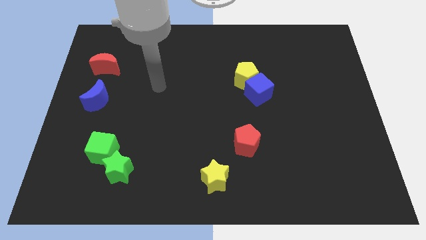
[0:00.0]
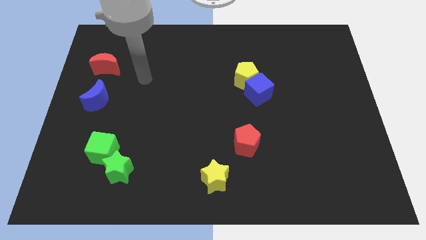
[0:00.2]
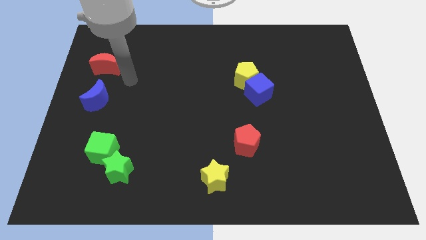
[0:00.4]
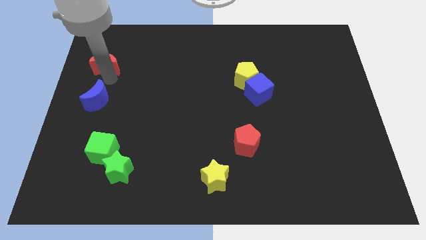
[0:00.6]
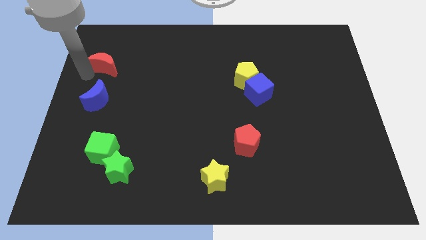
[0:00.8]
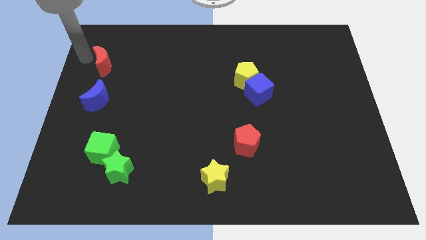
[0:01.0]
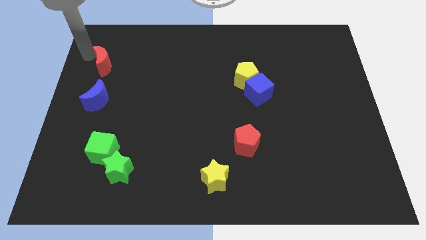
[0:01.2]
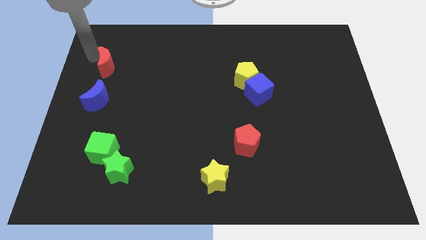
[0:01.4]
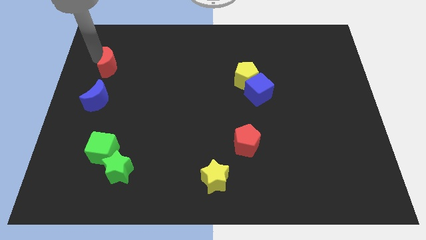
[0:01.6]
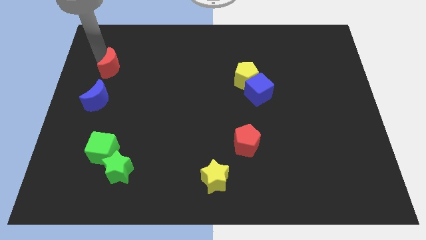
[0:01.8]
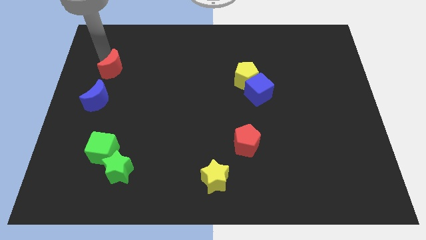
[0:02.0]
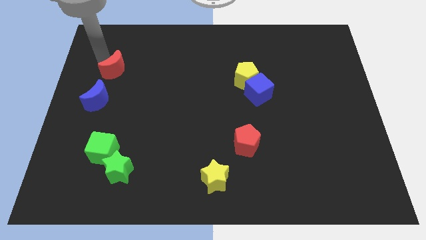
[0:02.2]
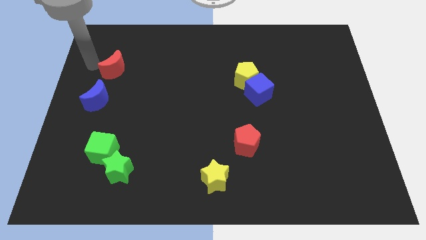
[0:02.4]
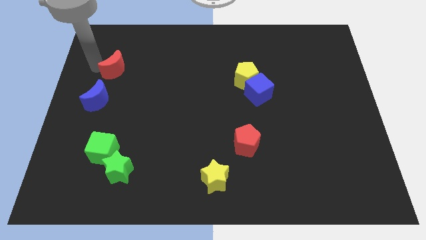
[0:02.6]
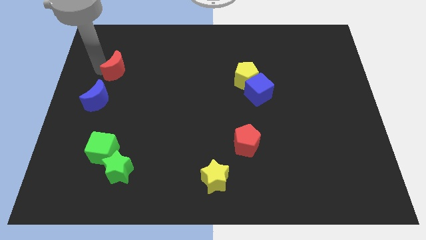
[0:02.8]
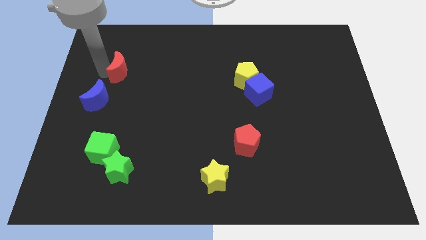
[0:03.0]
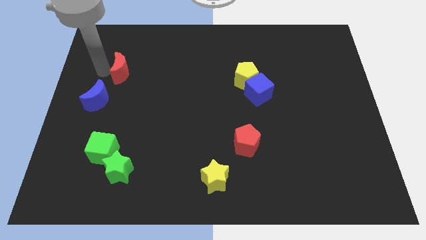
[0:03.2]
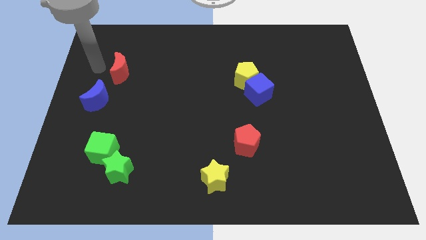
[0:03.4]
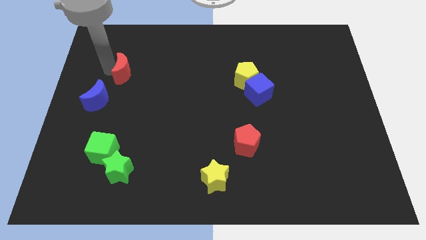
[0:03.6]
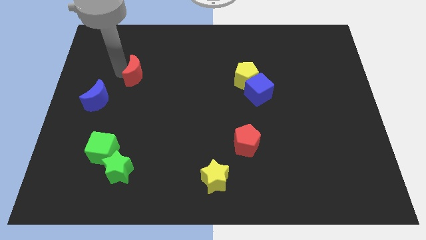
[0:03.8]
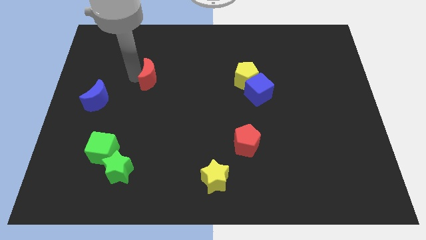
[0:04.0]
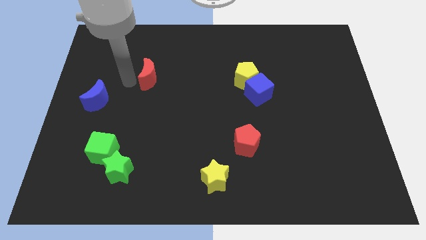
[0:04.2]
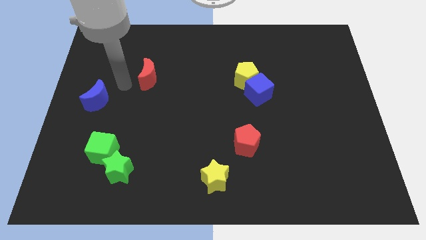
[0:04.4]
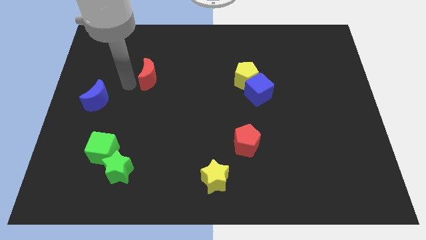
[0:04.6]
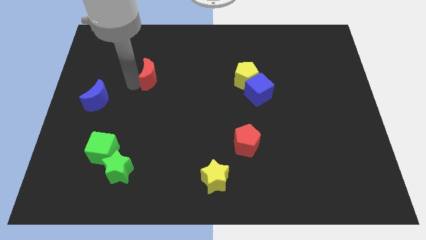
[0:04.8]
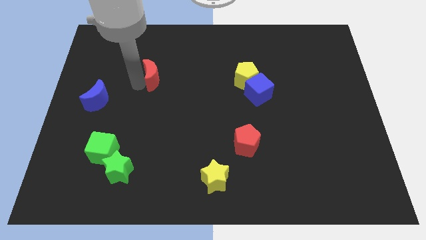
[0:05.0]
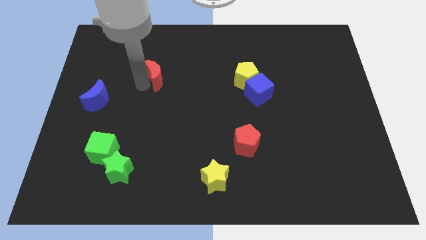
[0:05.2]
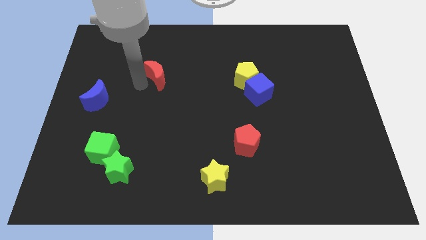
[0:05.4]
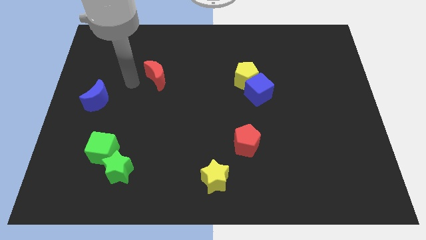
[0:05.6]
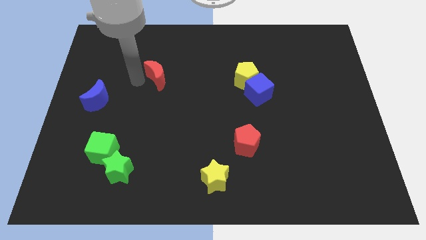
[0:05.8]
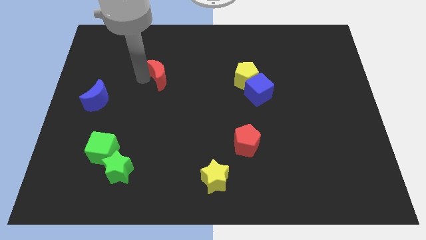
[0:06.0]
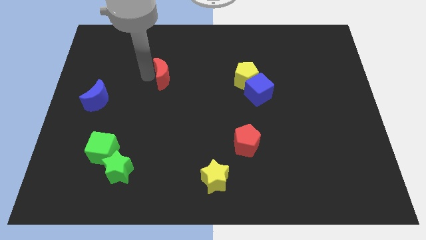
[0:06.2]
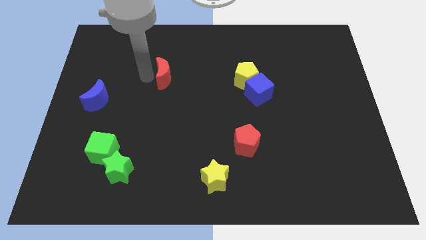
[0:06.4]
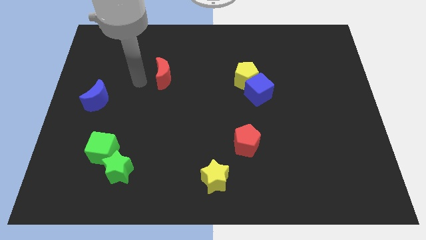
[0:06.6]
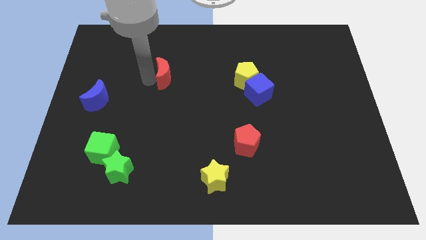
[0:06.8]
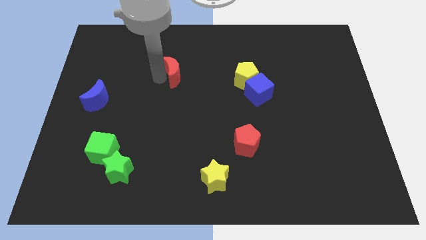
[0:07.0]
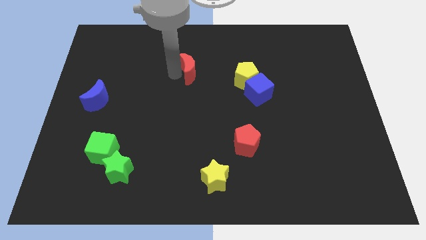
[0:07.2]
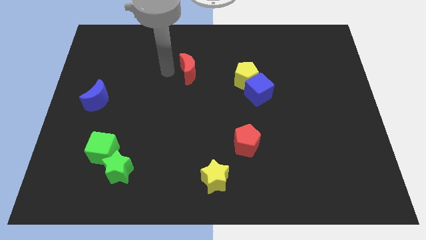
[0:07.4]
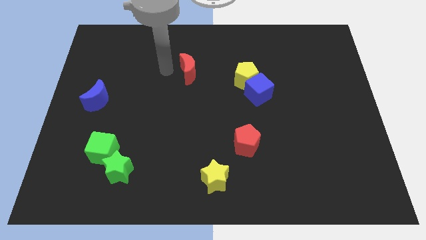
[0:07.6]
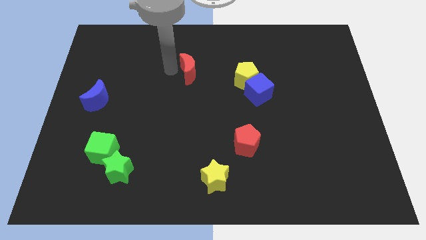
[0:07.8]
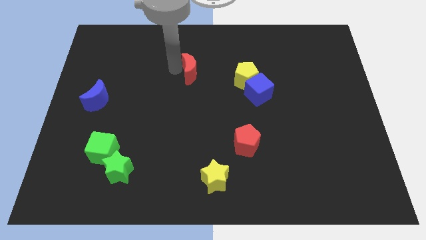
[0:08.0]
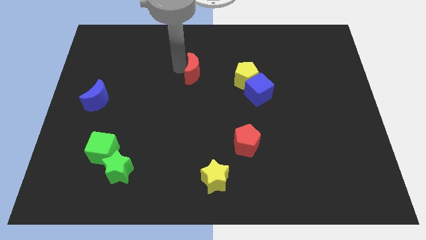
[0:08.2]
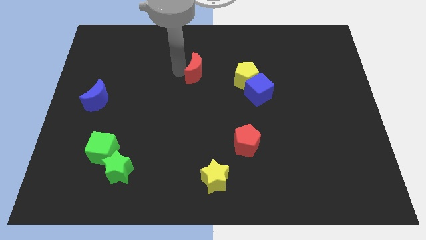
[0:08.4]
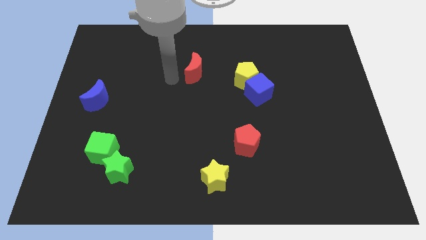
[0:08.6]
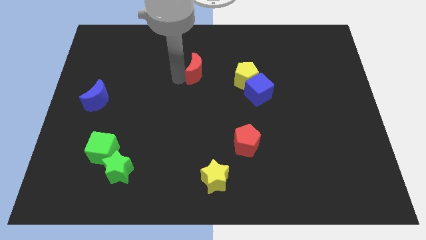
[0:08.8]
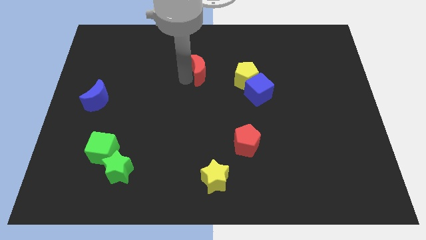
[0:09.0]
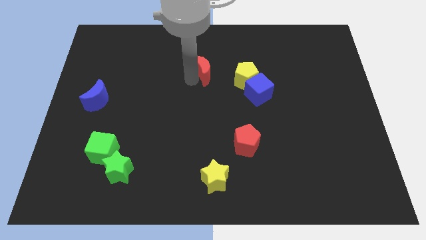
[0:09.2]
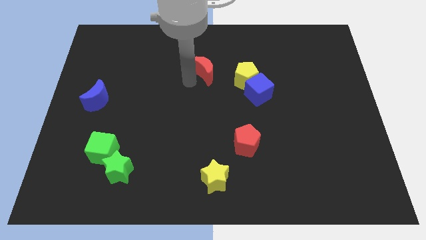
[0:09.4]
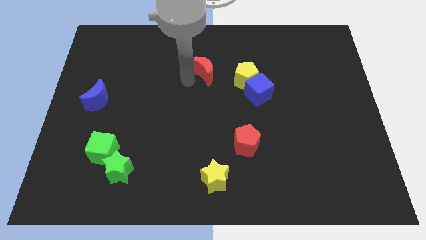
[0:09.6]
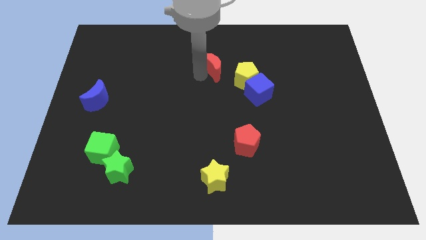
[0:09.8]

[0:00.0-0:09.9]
push the red moon to the top left of the yellow pentagon
